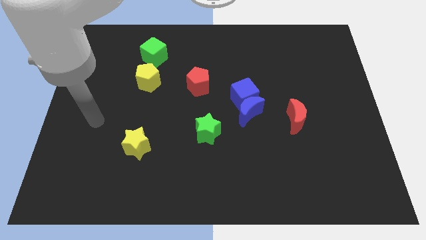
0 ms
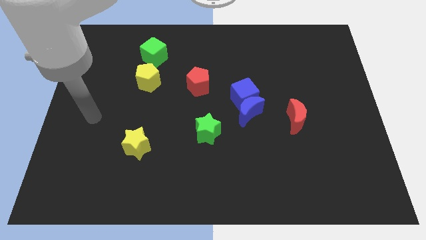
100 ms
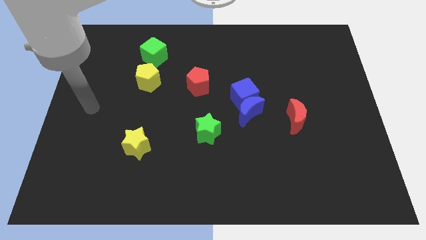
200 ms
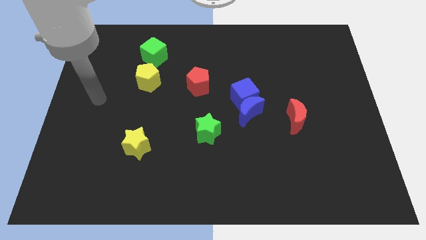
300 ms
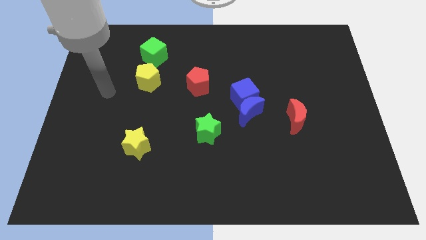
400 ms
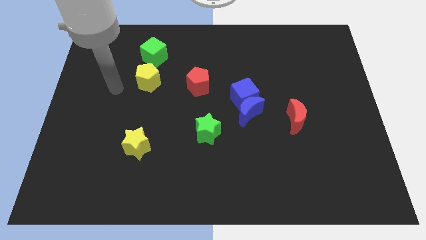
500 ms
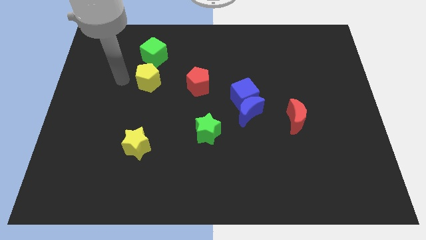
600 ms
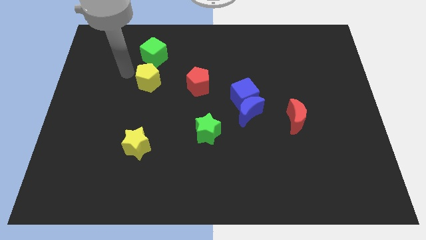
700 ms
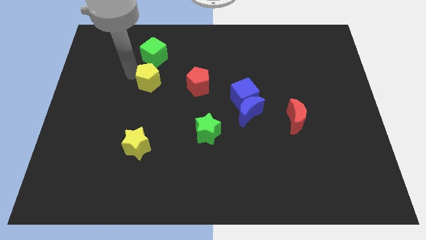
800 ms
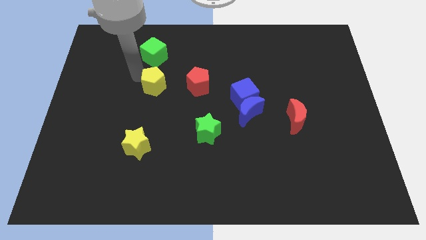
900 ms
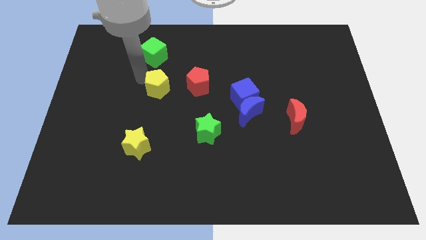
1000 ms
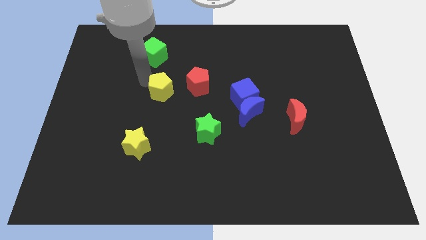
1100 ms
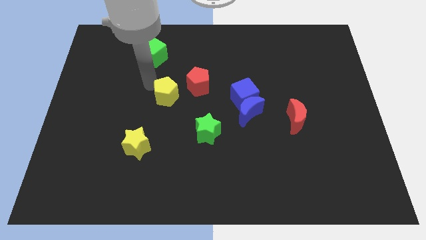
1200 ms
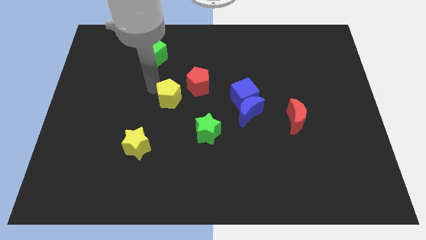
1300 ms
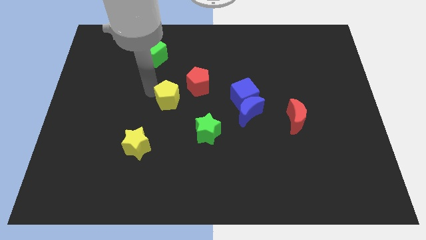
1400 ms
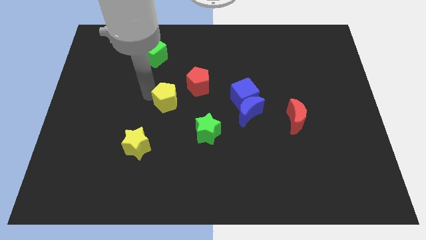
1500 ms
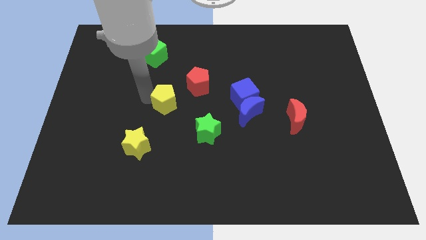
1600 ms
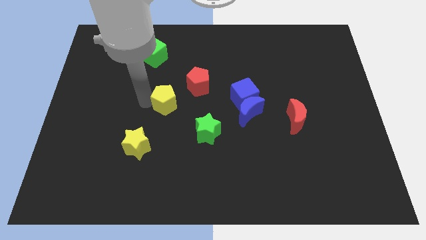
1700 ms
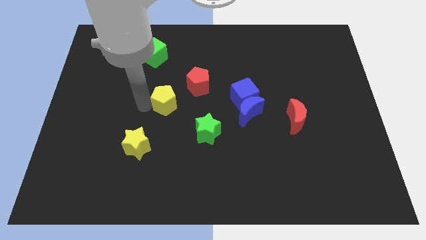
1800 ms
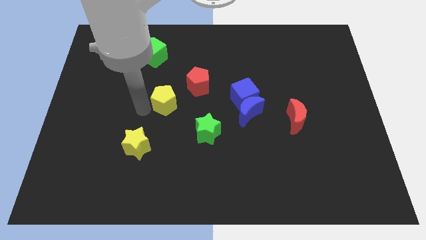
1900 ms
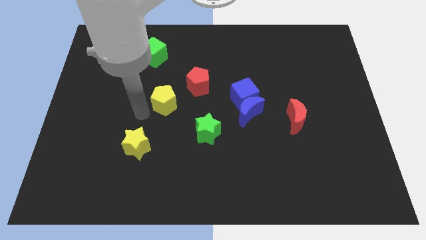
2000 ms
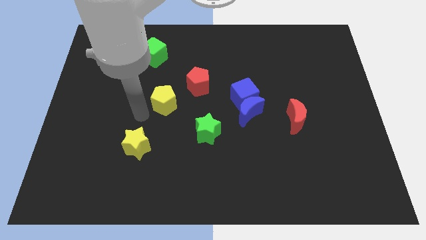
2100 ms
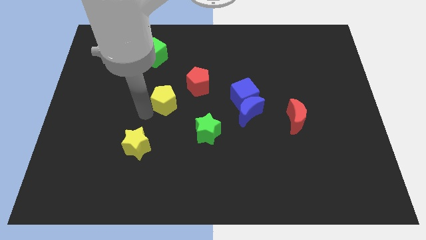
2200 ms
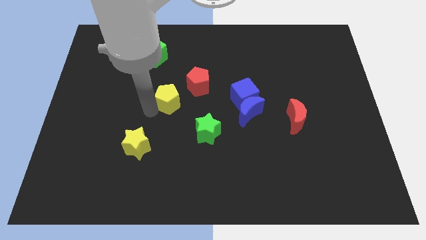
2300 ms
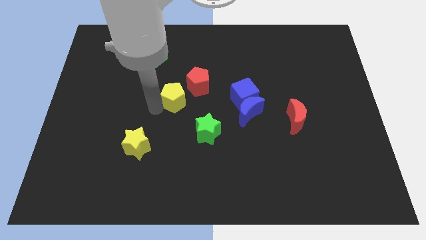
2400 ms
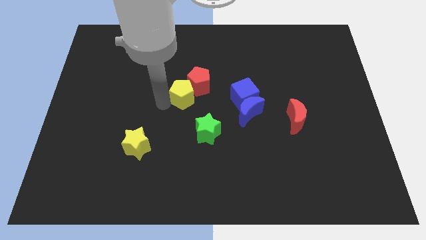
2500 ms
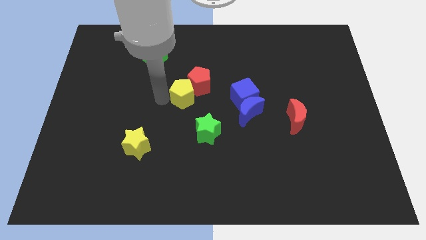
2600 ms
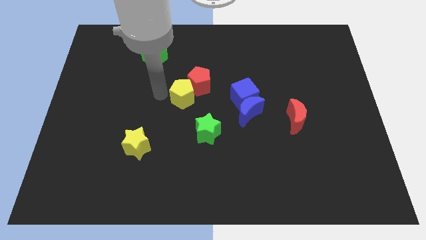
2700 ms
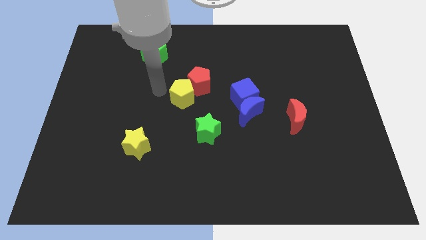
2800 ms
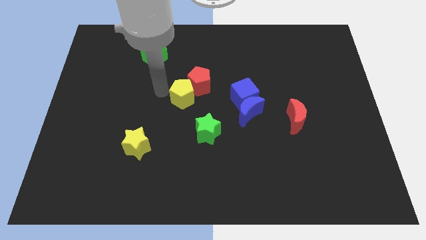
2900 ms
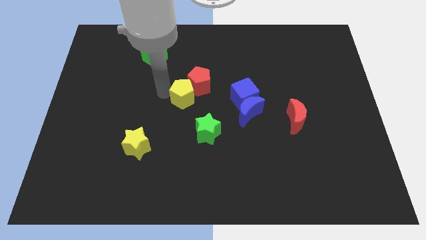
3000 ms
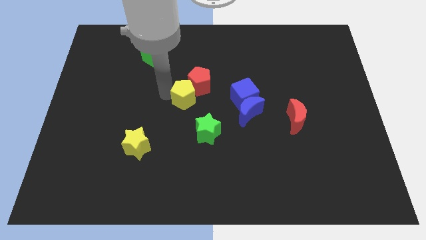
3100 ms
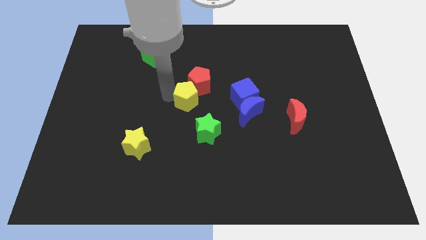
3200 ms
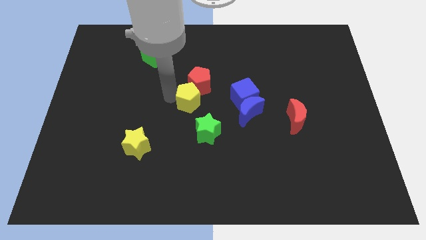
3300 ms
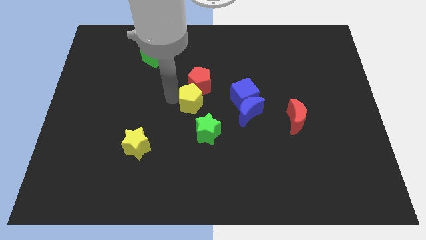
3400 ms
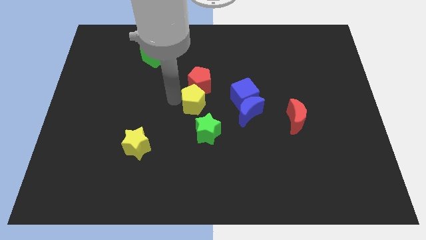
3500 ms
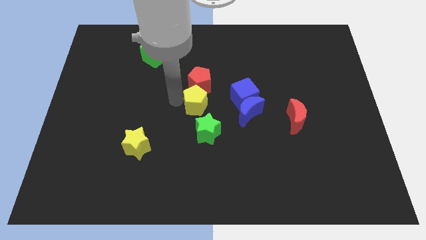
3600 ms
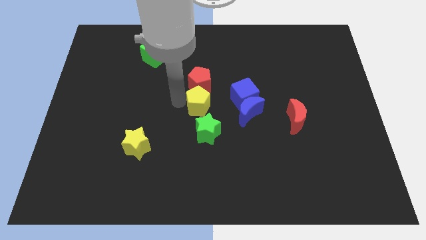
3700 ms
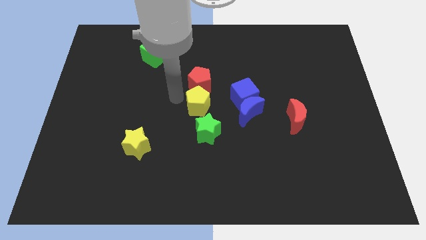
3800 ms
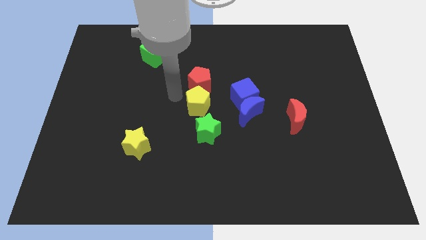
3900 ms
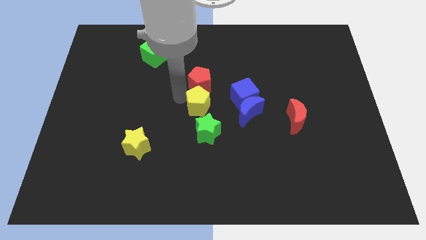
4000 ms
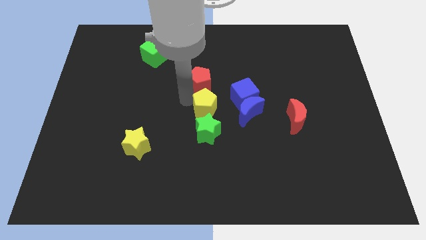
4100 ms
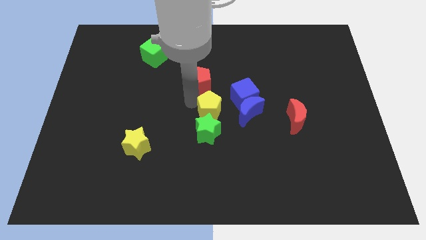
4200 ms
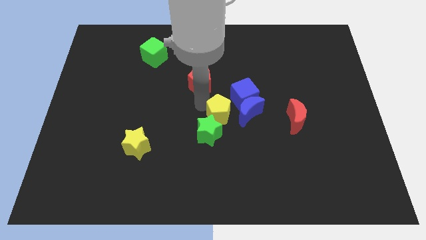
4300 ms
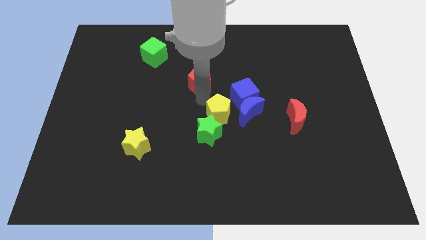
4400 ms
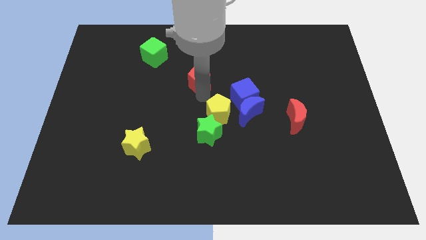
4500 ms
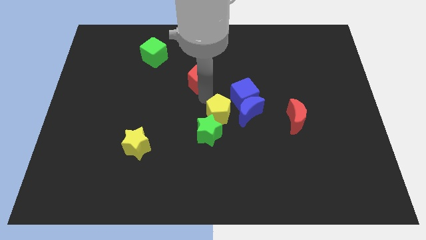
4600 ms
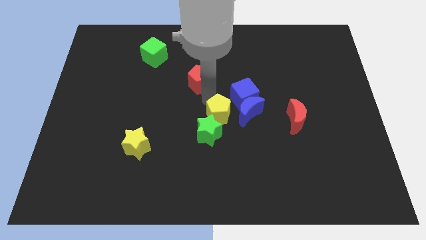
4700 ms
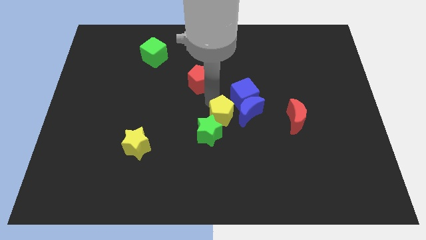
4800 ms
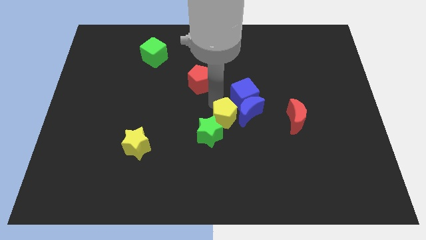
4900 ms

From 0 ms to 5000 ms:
push the yellow pentagon down and right diagonally

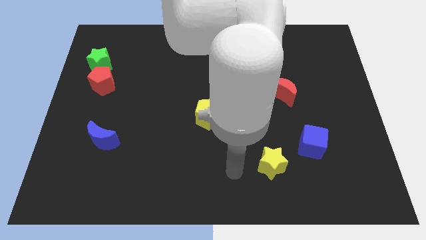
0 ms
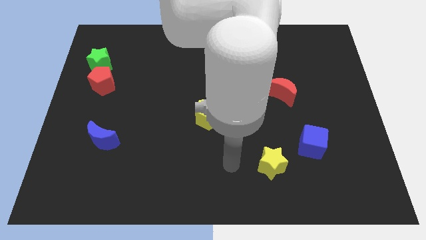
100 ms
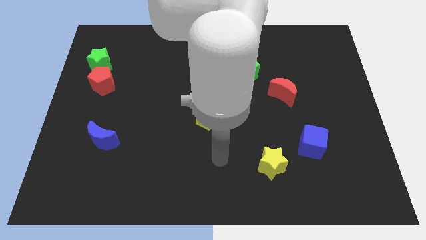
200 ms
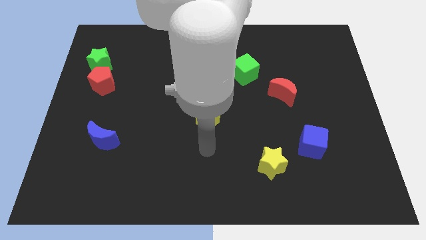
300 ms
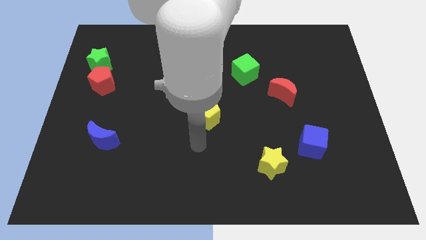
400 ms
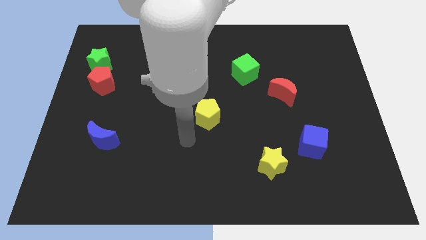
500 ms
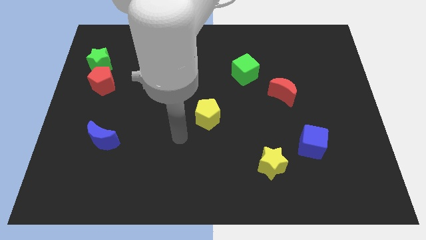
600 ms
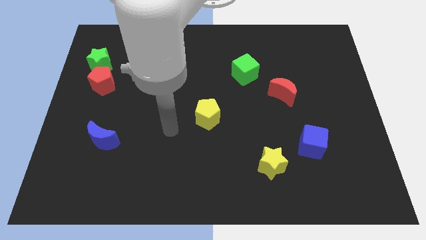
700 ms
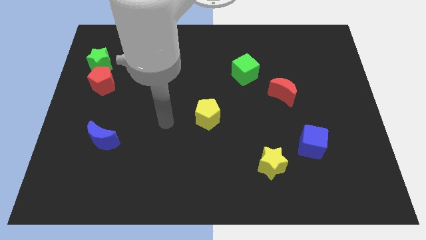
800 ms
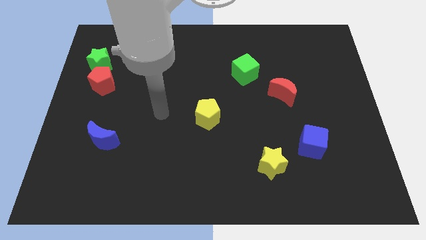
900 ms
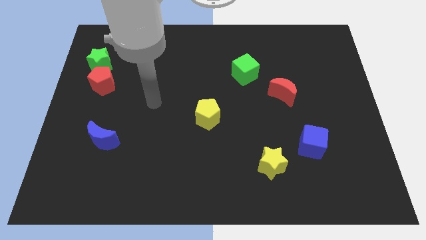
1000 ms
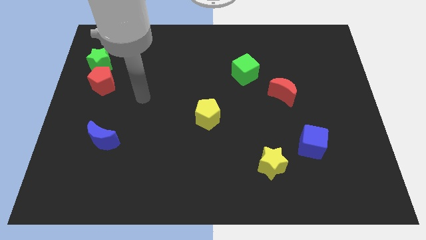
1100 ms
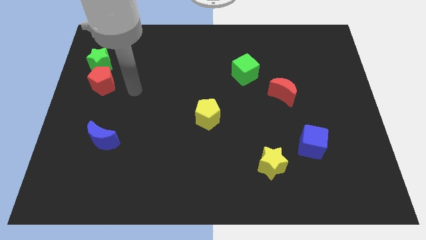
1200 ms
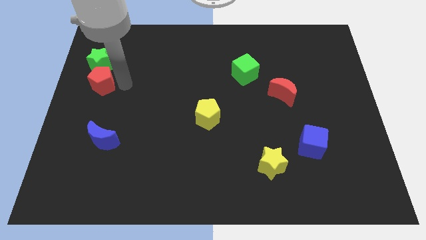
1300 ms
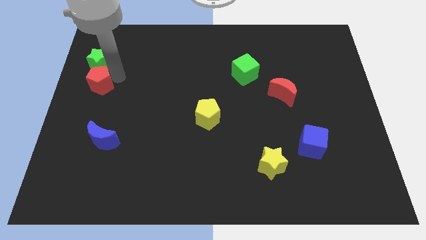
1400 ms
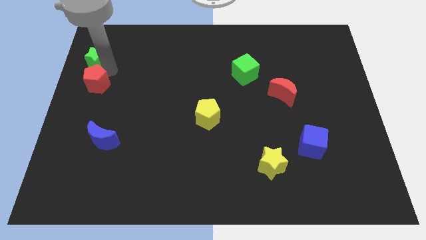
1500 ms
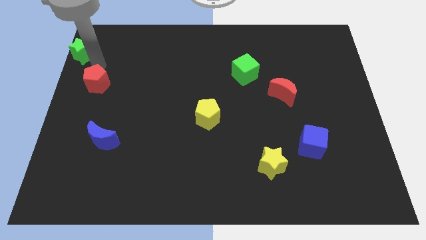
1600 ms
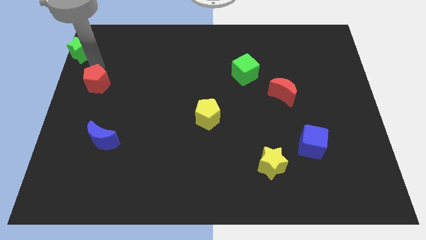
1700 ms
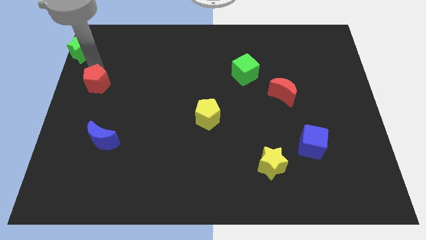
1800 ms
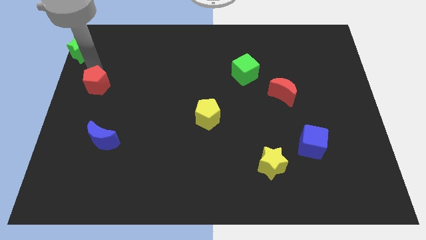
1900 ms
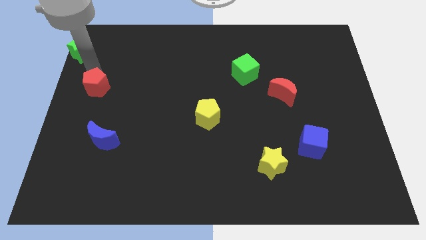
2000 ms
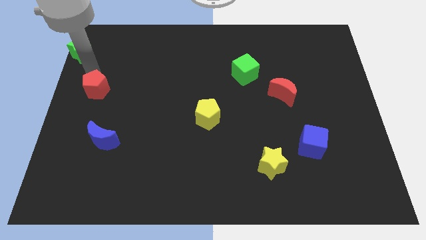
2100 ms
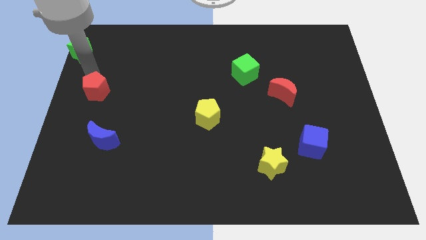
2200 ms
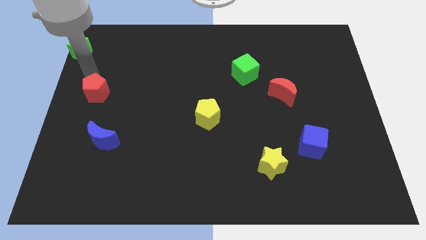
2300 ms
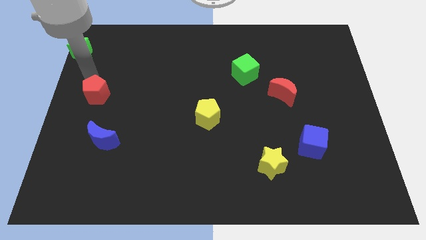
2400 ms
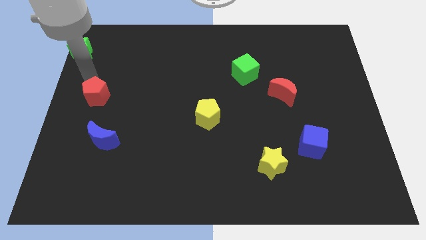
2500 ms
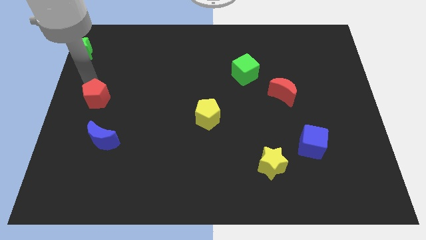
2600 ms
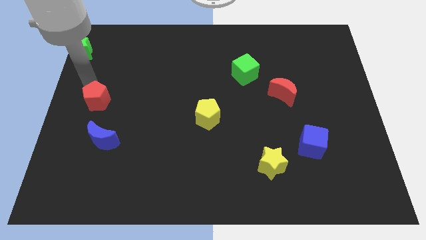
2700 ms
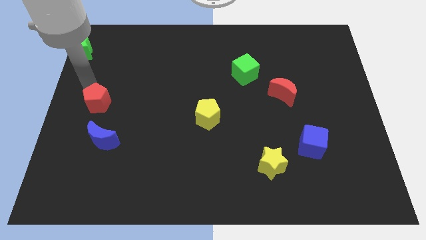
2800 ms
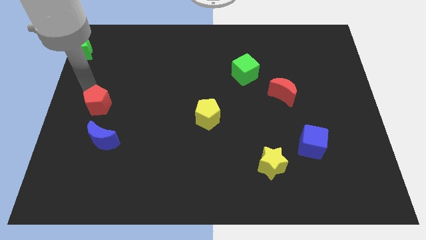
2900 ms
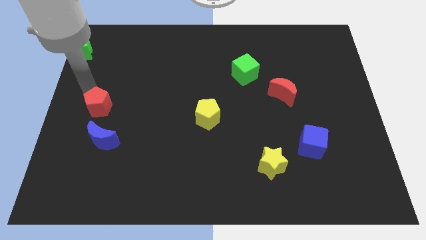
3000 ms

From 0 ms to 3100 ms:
slide the red pentagon a little downwards

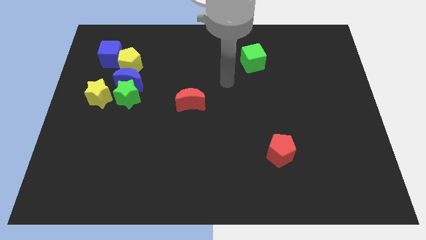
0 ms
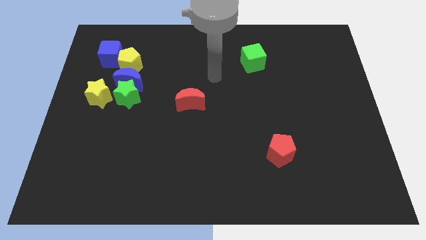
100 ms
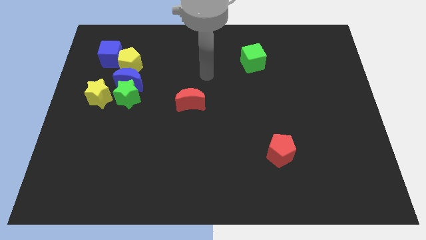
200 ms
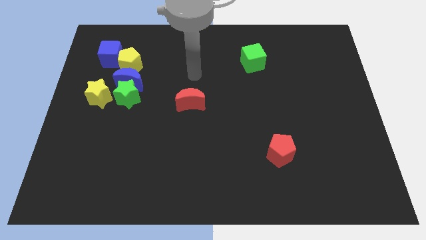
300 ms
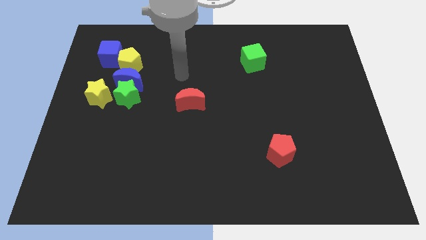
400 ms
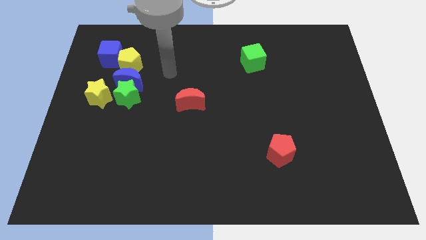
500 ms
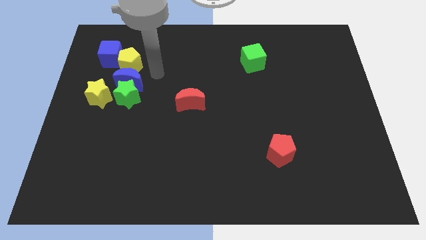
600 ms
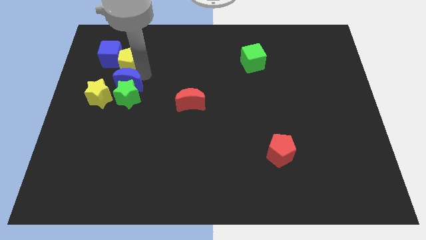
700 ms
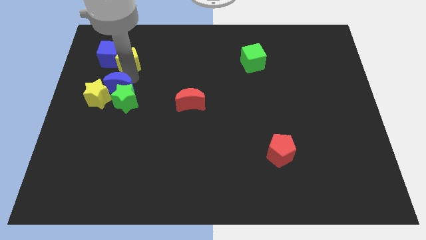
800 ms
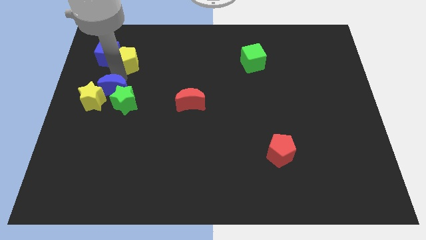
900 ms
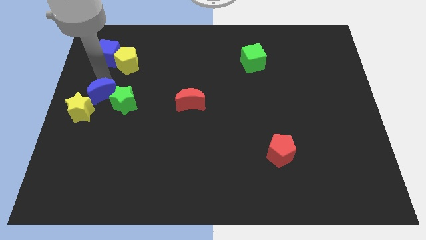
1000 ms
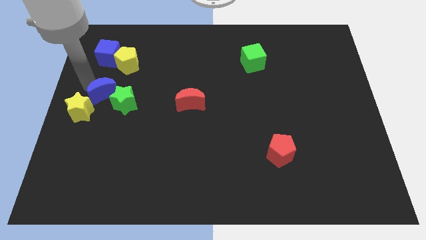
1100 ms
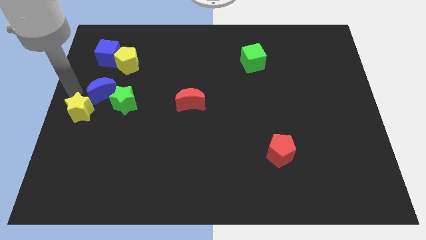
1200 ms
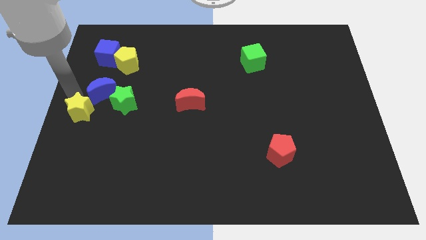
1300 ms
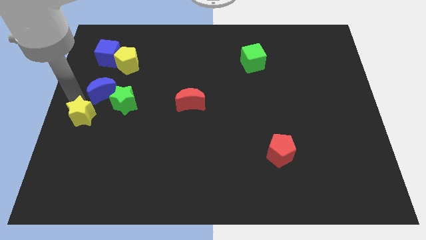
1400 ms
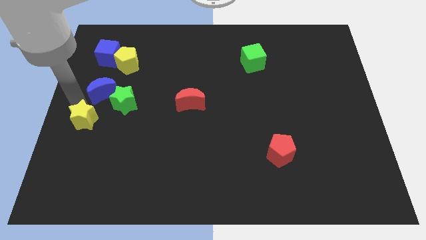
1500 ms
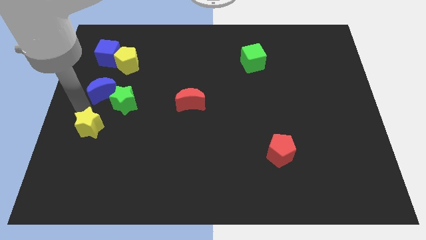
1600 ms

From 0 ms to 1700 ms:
slide the yellow star somewhat downwards
